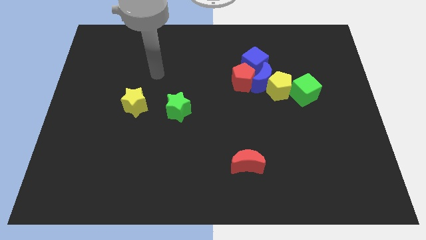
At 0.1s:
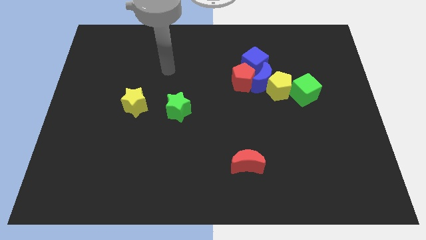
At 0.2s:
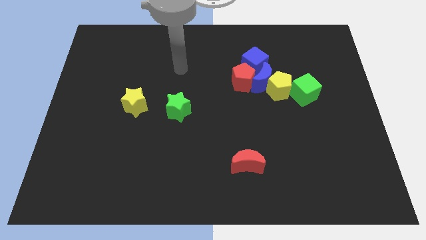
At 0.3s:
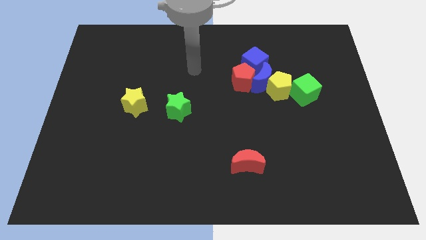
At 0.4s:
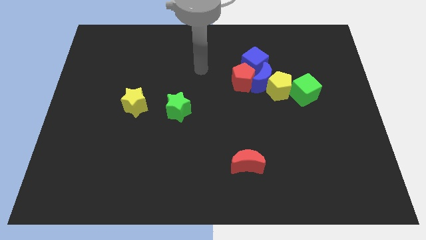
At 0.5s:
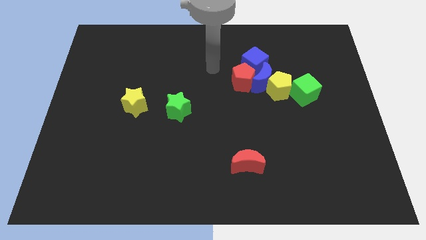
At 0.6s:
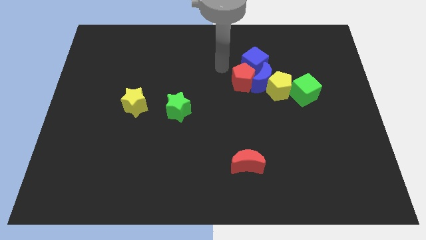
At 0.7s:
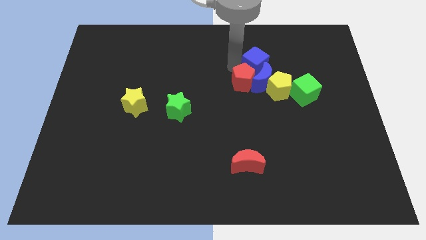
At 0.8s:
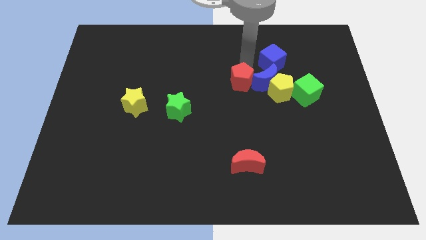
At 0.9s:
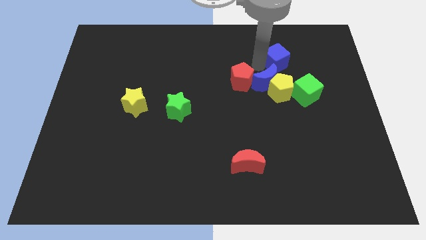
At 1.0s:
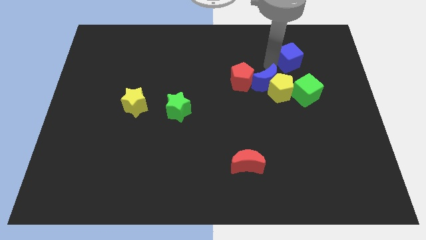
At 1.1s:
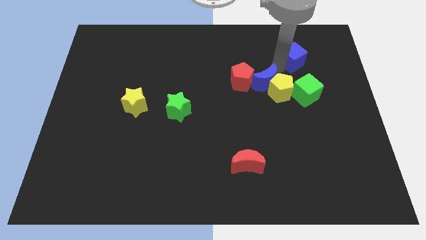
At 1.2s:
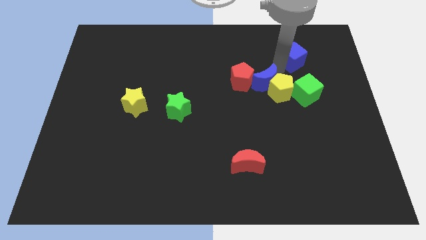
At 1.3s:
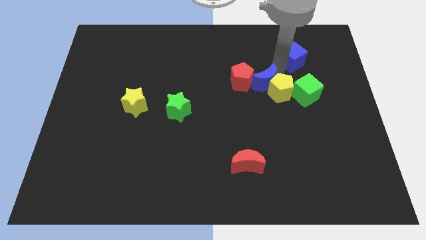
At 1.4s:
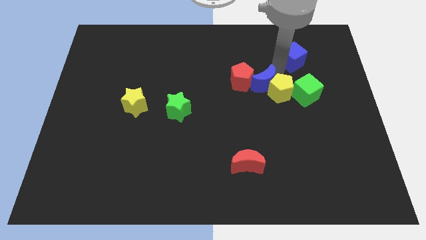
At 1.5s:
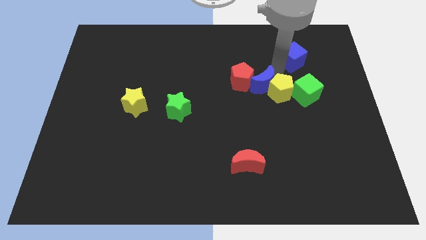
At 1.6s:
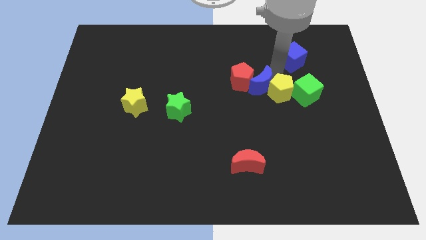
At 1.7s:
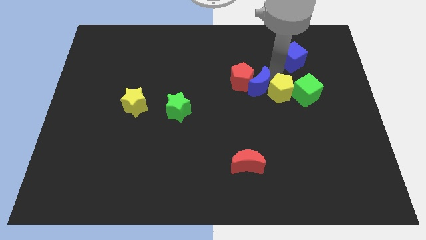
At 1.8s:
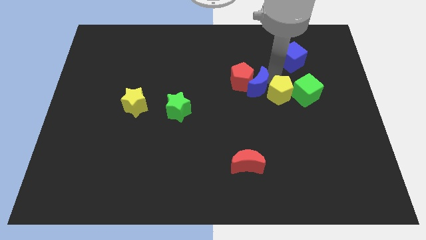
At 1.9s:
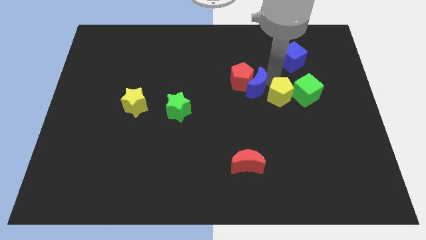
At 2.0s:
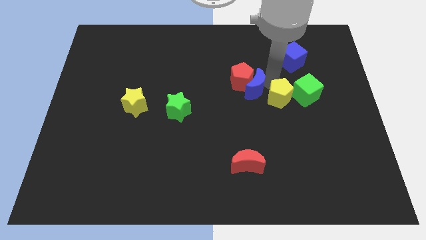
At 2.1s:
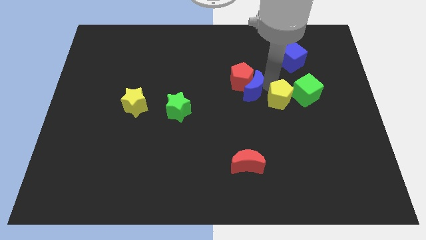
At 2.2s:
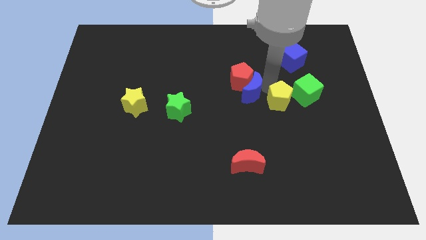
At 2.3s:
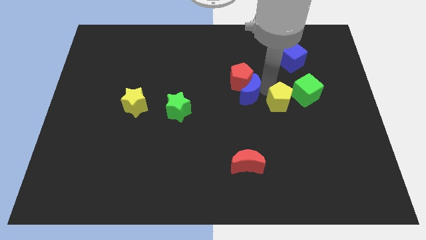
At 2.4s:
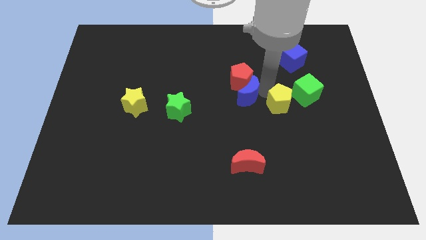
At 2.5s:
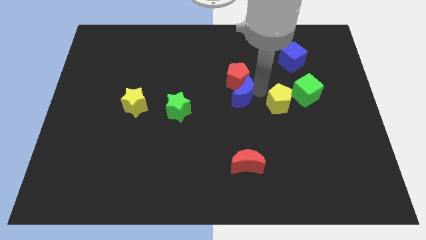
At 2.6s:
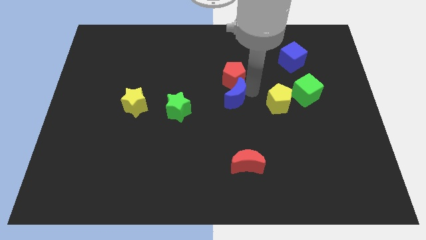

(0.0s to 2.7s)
separate the blue moon from the group of blocks

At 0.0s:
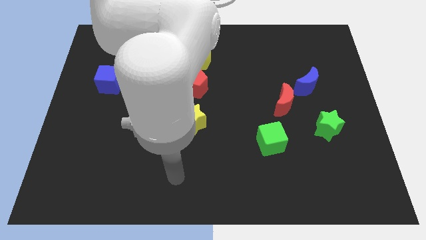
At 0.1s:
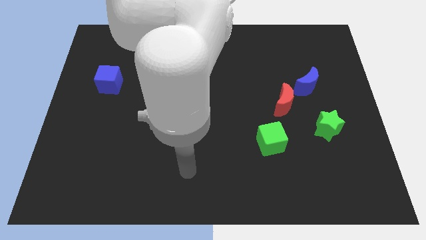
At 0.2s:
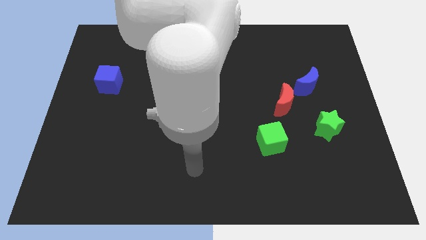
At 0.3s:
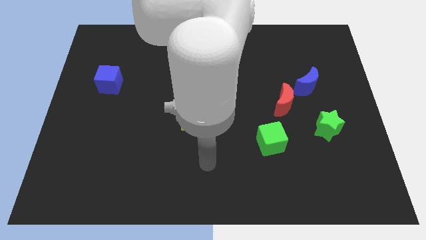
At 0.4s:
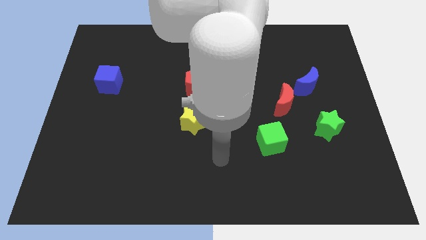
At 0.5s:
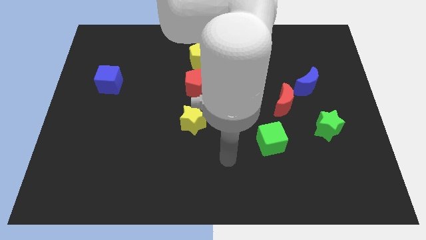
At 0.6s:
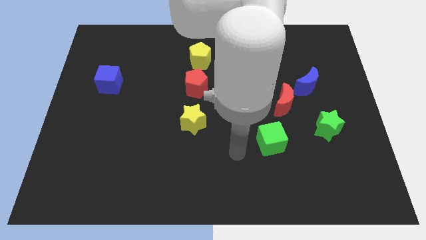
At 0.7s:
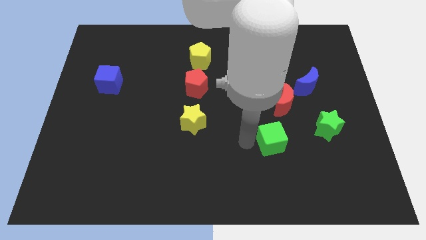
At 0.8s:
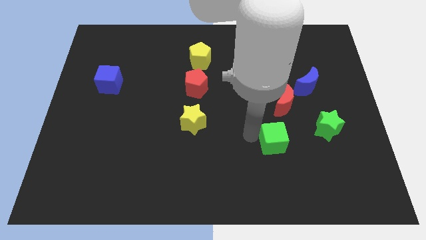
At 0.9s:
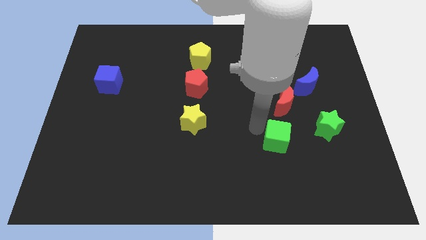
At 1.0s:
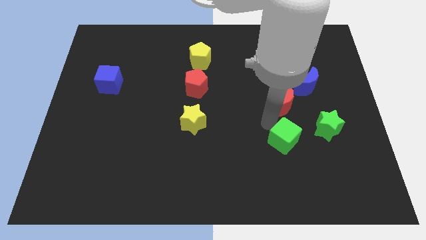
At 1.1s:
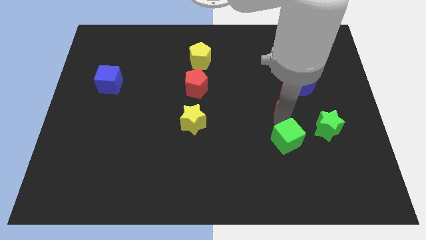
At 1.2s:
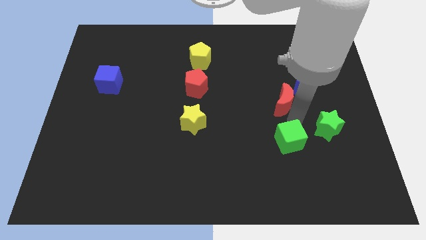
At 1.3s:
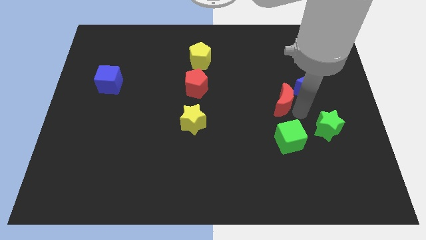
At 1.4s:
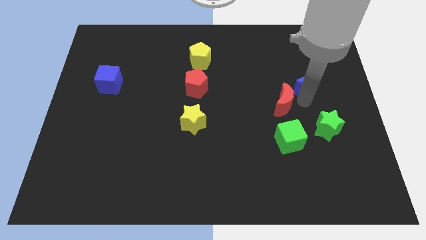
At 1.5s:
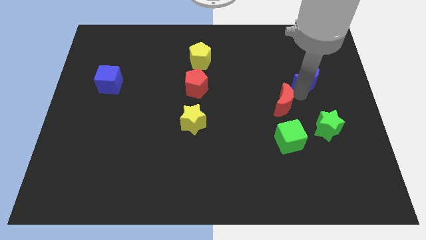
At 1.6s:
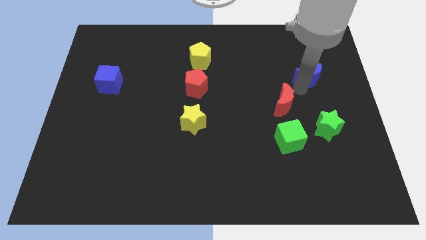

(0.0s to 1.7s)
pull the red moon apart from the blue moon

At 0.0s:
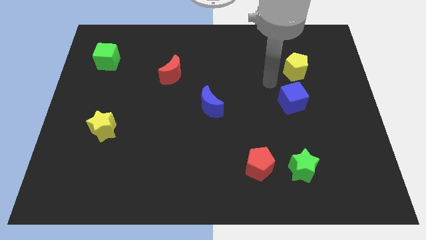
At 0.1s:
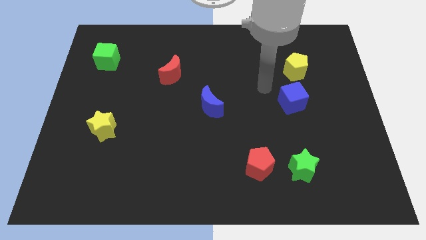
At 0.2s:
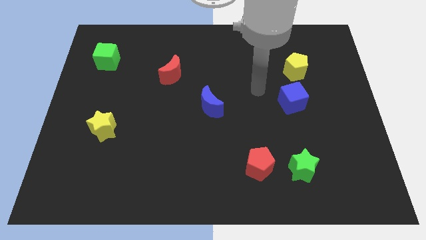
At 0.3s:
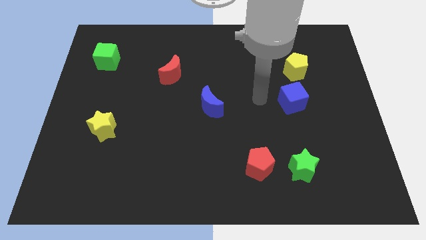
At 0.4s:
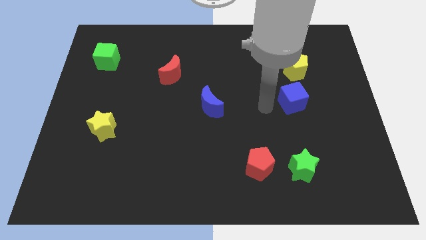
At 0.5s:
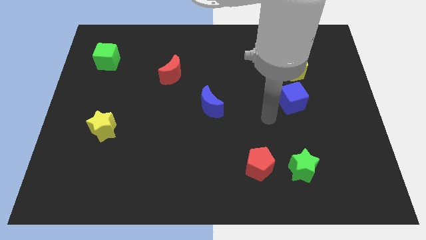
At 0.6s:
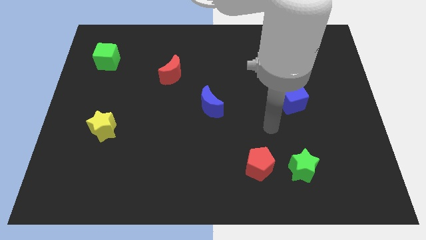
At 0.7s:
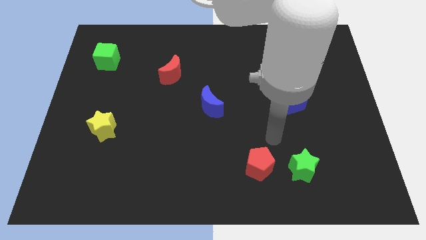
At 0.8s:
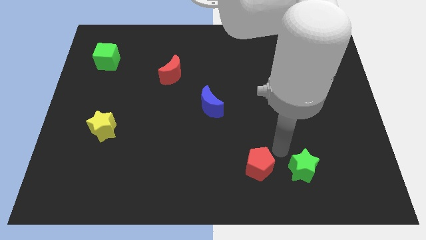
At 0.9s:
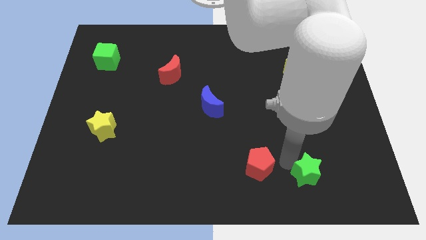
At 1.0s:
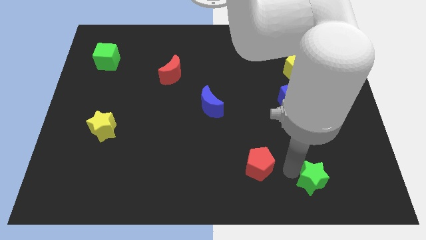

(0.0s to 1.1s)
move the red pentagon away from the green star

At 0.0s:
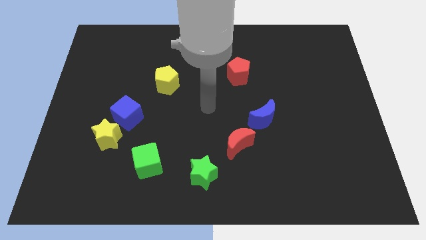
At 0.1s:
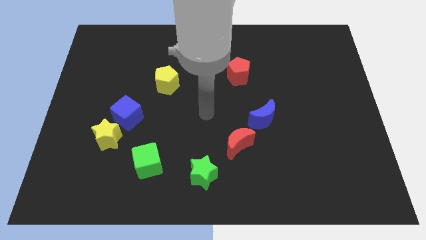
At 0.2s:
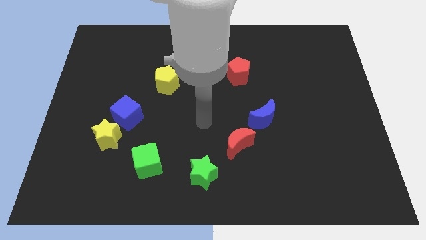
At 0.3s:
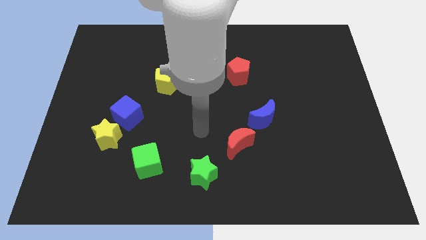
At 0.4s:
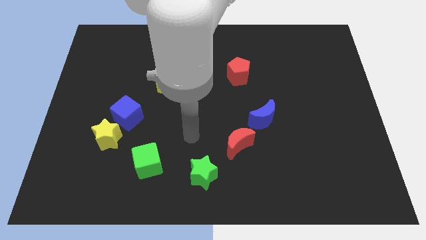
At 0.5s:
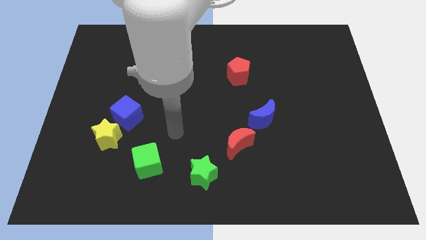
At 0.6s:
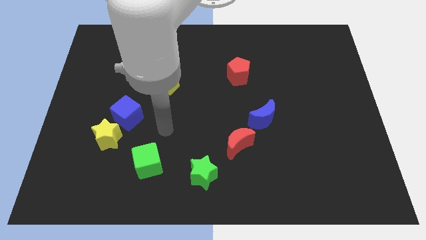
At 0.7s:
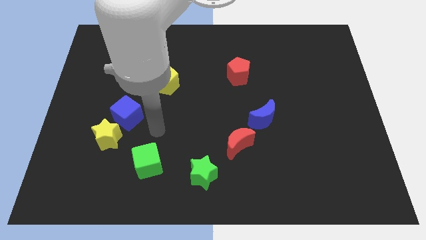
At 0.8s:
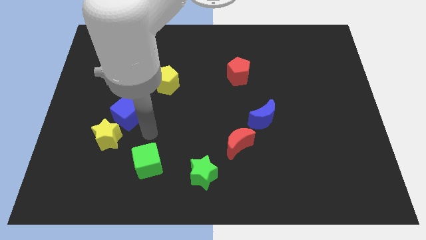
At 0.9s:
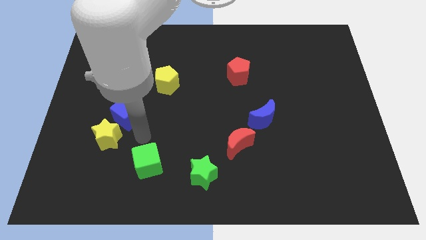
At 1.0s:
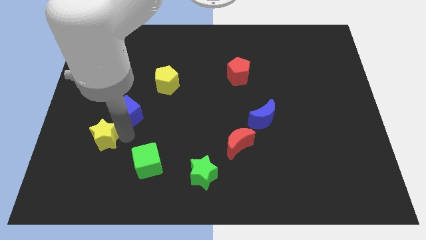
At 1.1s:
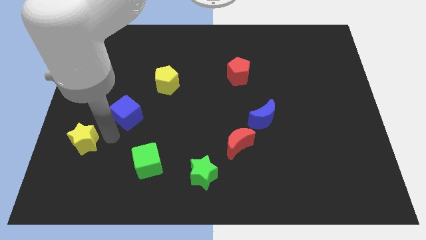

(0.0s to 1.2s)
separate the blue cube from the yellow star

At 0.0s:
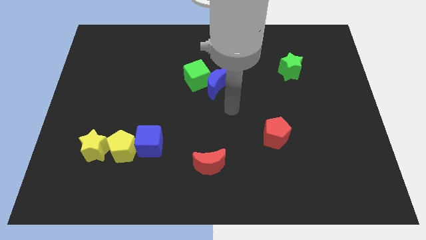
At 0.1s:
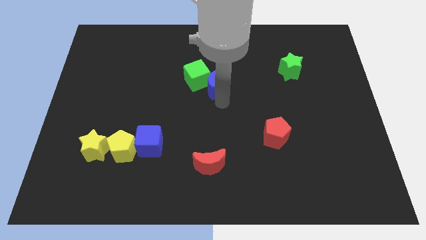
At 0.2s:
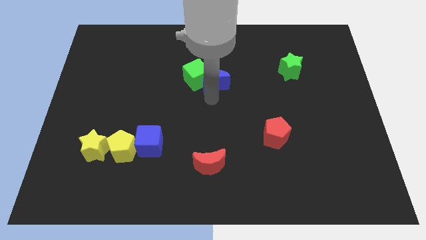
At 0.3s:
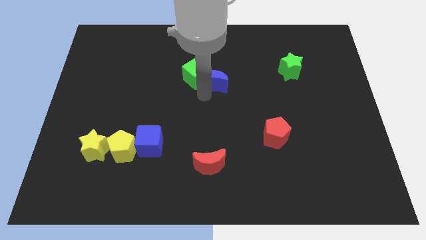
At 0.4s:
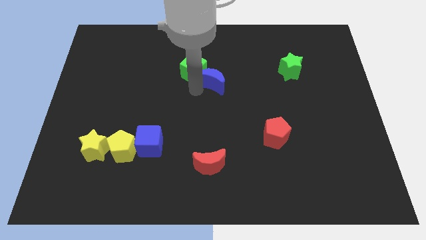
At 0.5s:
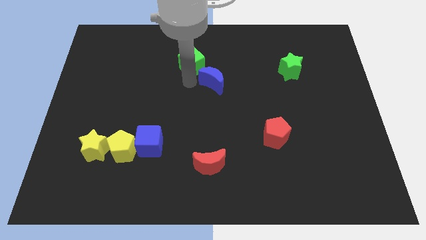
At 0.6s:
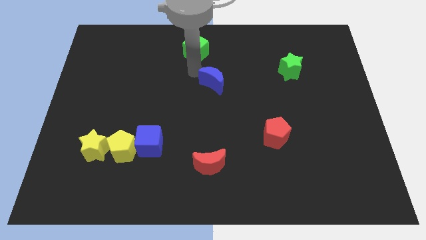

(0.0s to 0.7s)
pull the blue moon apart from the green cube

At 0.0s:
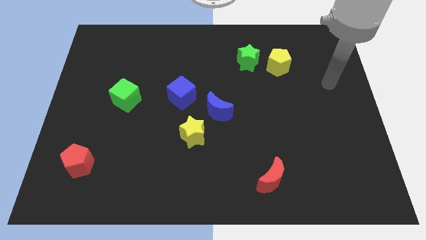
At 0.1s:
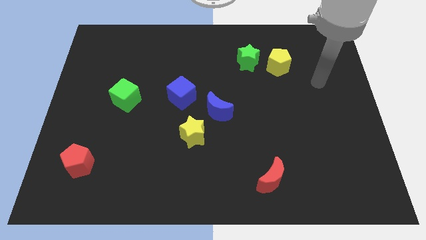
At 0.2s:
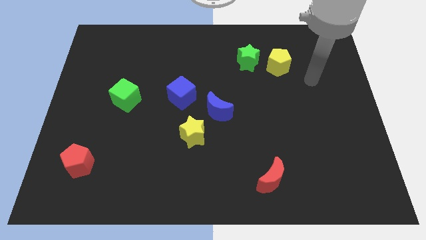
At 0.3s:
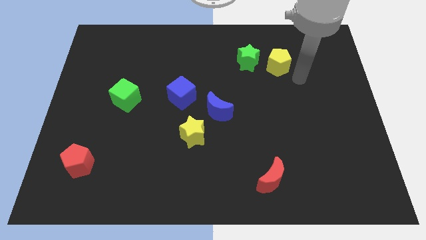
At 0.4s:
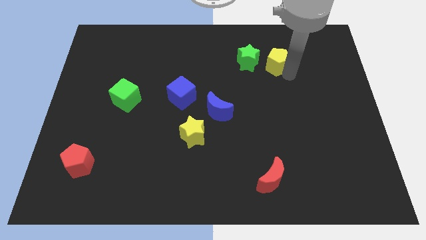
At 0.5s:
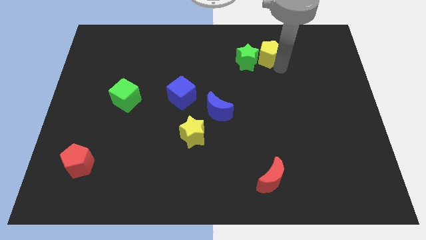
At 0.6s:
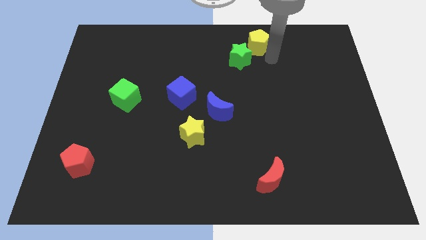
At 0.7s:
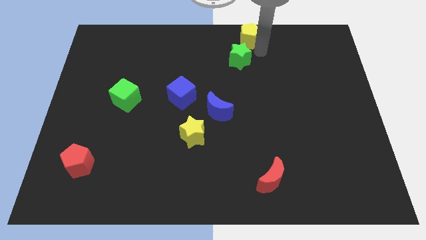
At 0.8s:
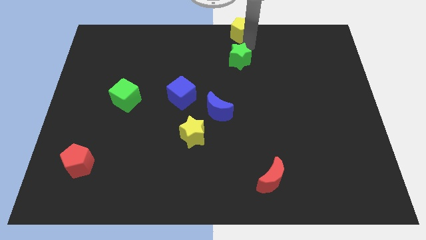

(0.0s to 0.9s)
pull the green star apart from the yellow pentagon

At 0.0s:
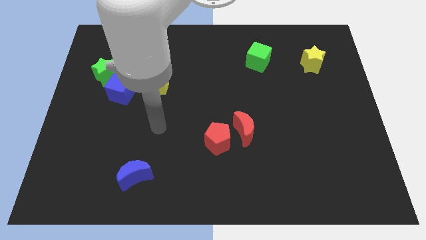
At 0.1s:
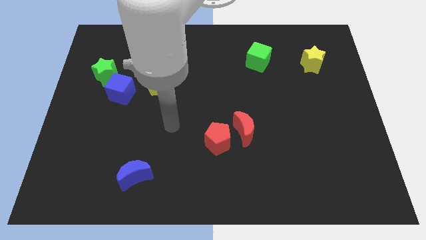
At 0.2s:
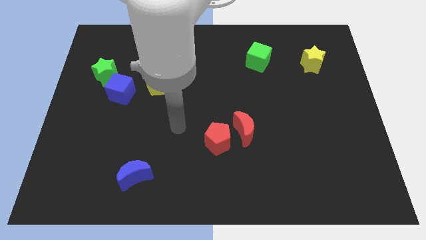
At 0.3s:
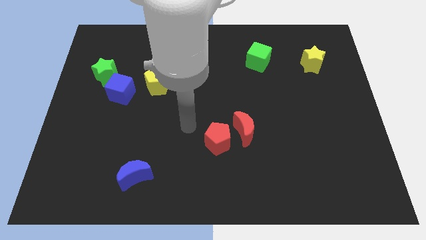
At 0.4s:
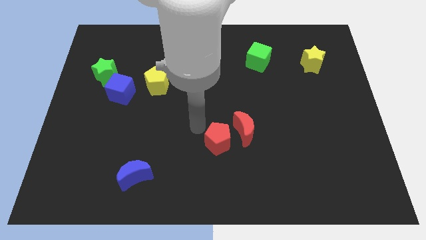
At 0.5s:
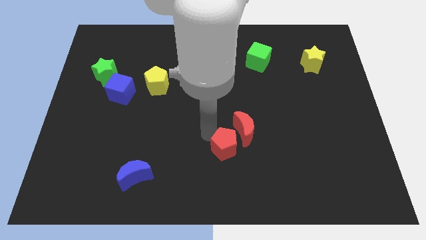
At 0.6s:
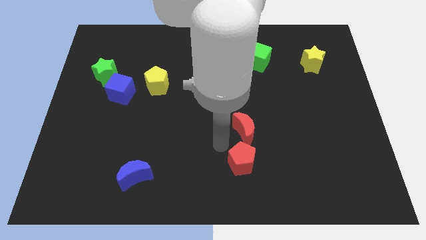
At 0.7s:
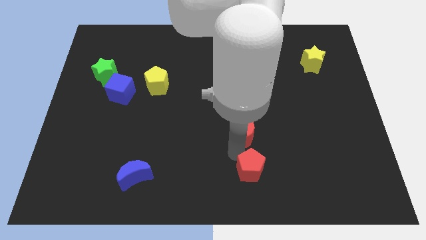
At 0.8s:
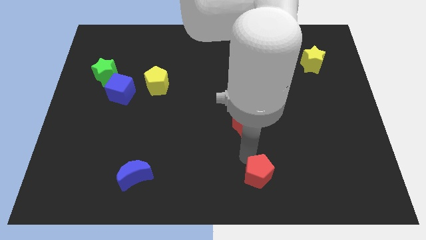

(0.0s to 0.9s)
pull the red moon apart from the red pentagon
